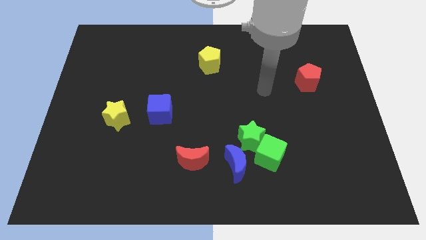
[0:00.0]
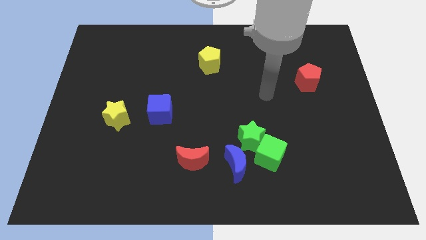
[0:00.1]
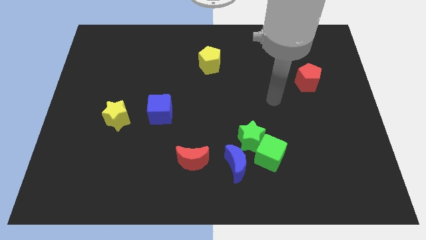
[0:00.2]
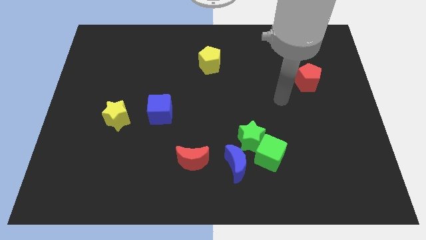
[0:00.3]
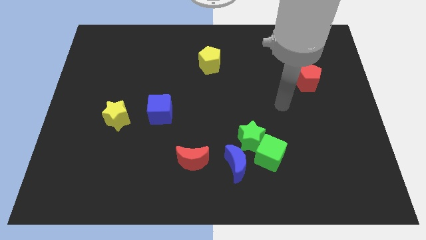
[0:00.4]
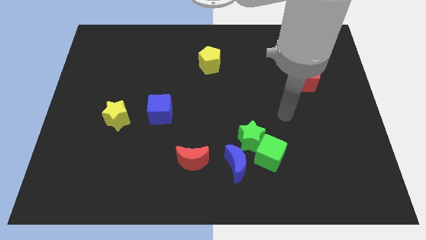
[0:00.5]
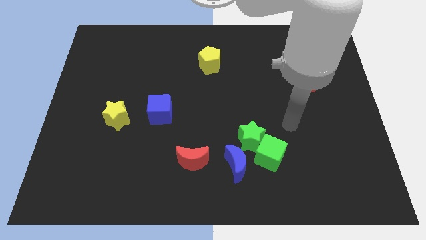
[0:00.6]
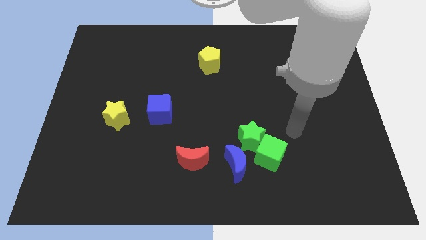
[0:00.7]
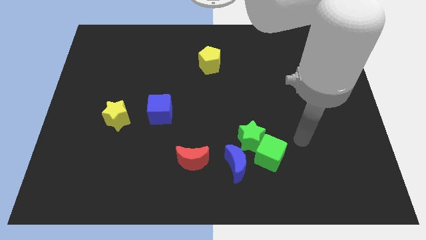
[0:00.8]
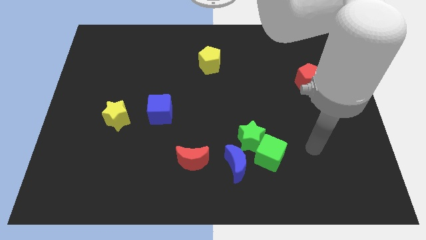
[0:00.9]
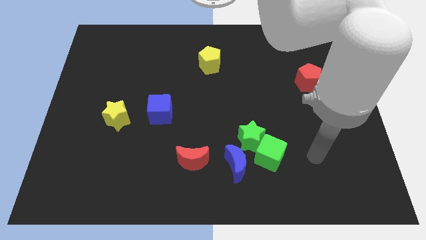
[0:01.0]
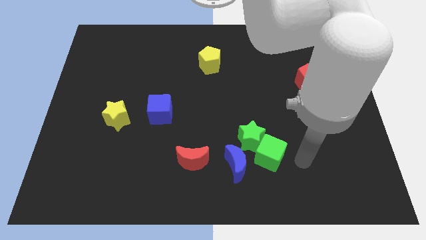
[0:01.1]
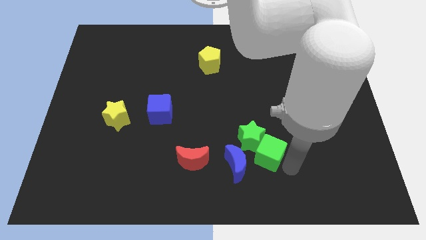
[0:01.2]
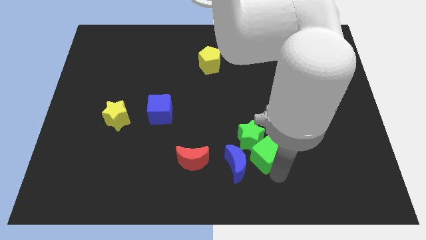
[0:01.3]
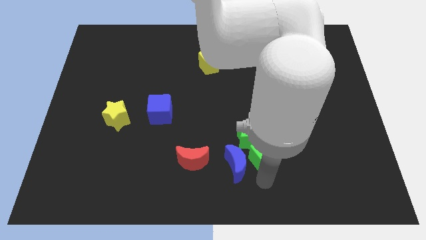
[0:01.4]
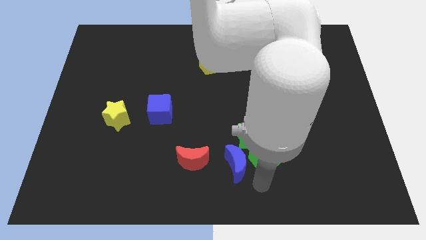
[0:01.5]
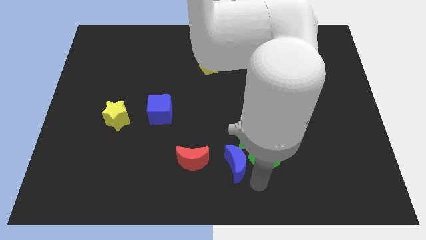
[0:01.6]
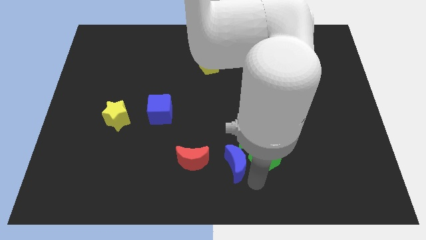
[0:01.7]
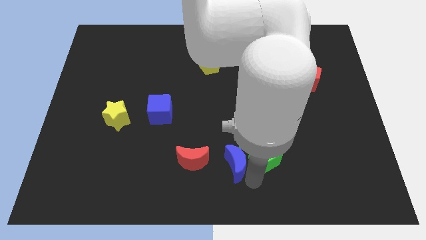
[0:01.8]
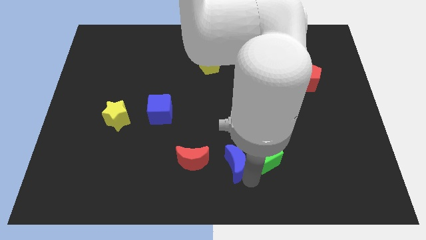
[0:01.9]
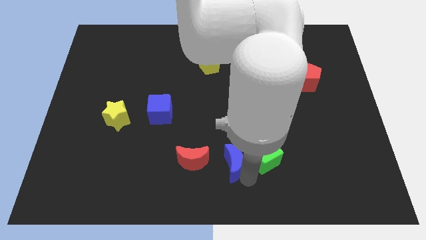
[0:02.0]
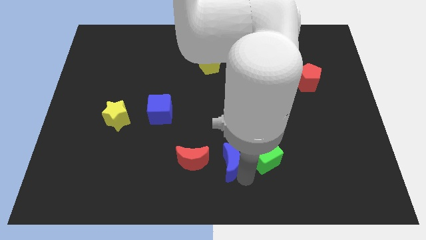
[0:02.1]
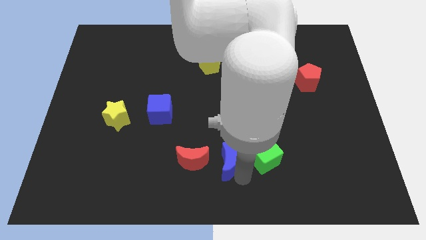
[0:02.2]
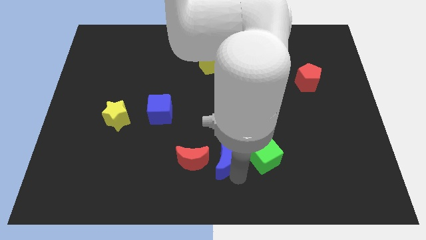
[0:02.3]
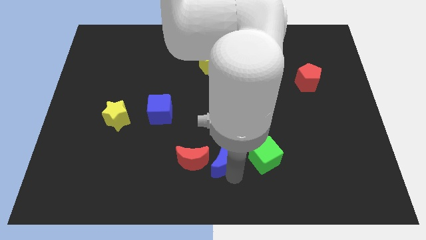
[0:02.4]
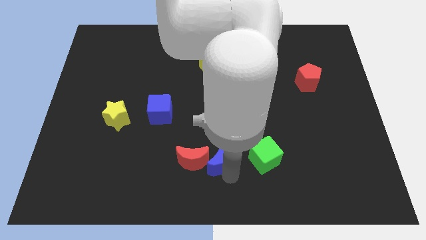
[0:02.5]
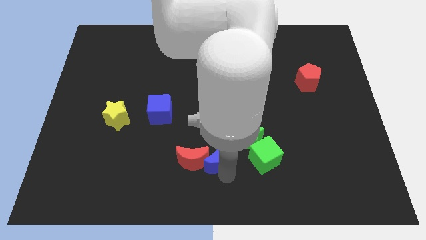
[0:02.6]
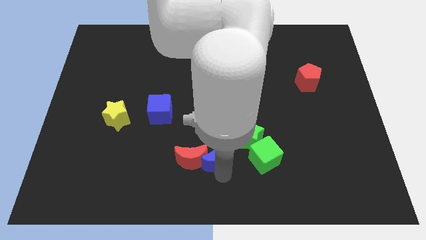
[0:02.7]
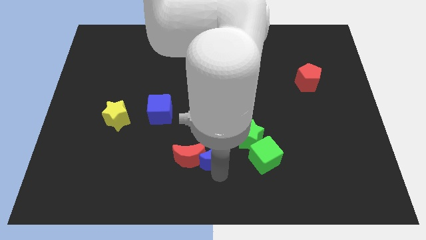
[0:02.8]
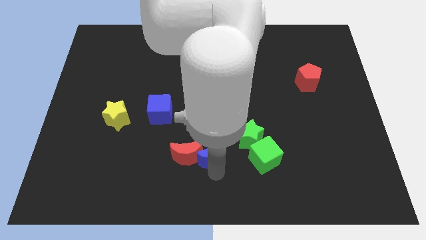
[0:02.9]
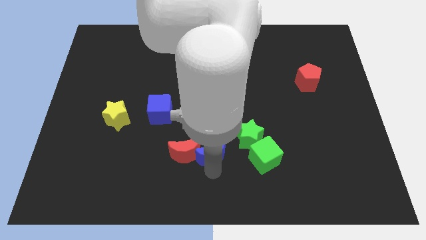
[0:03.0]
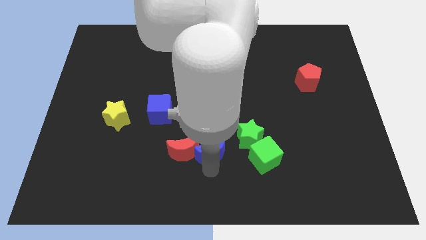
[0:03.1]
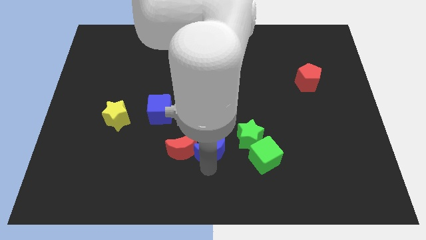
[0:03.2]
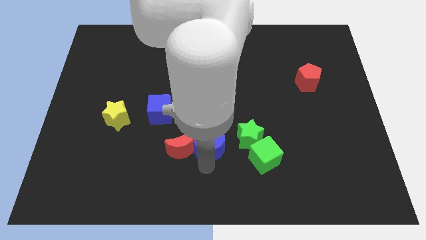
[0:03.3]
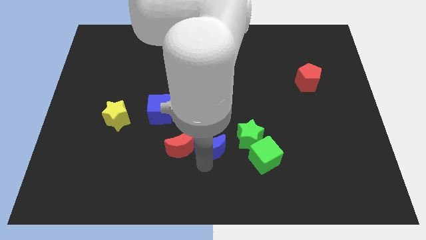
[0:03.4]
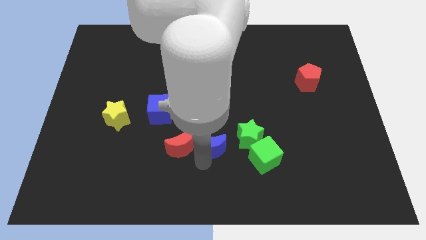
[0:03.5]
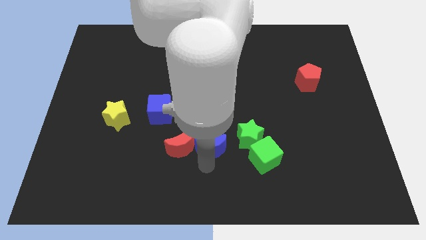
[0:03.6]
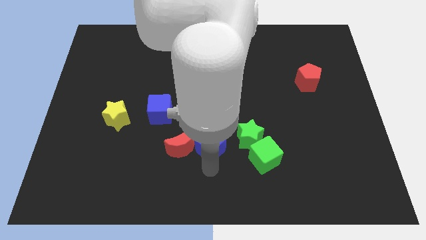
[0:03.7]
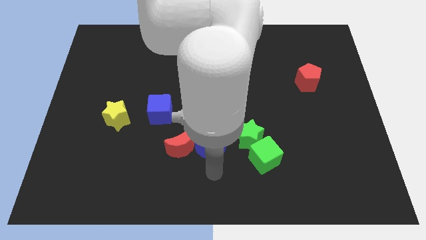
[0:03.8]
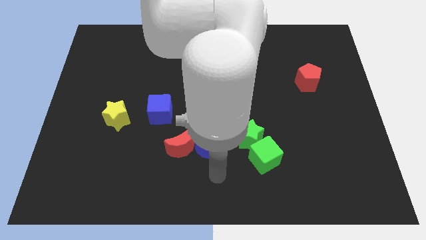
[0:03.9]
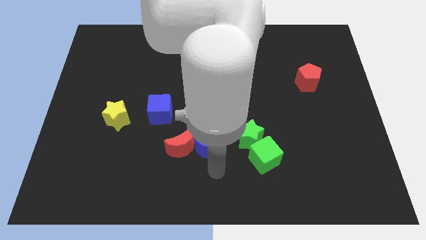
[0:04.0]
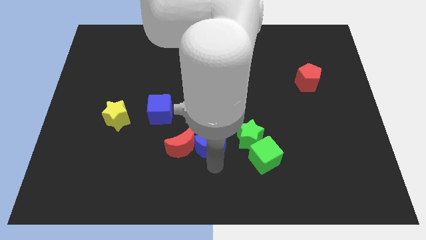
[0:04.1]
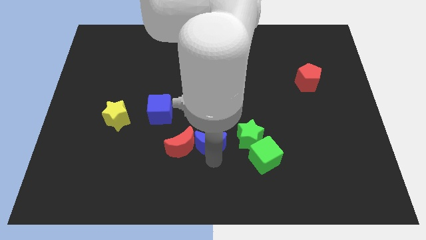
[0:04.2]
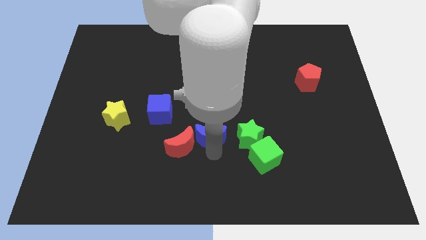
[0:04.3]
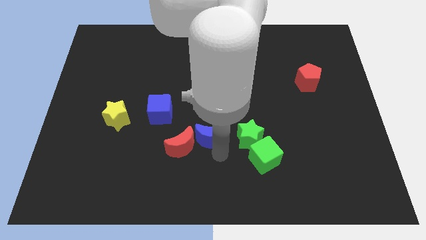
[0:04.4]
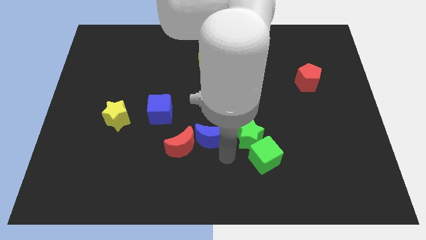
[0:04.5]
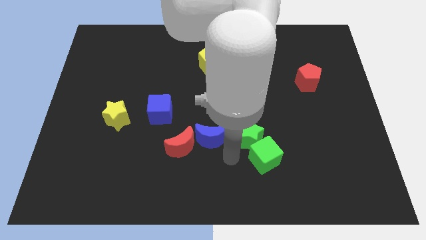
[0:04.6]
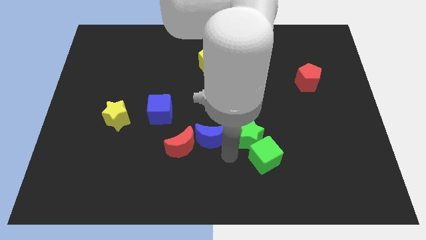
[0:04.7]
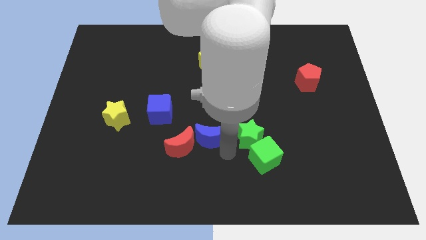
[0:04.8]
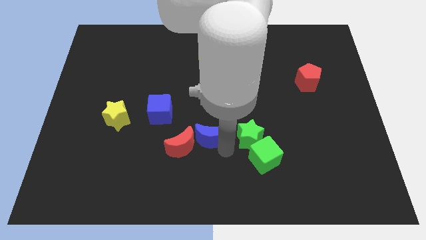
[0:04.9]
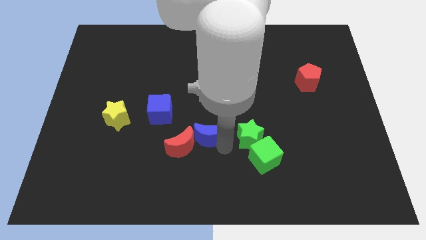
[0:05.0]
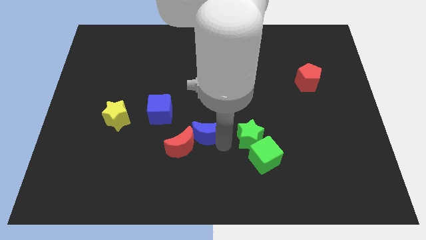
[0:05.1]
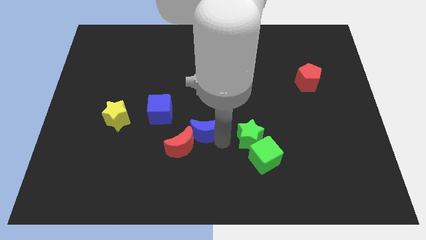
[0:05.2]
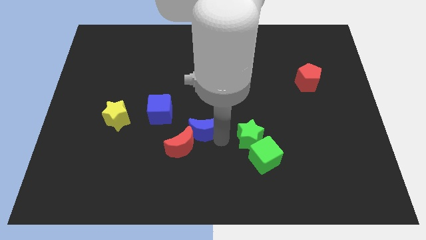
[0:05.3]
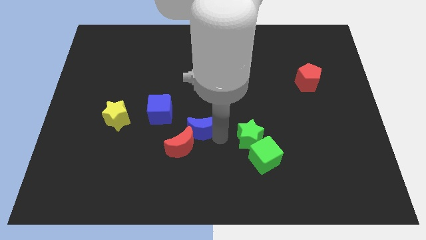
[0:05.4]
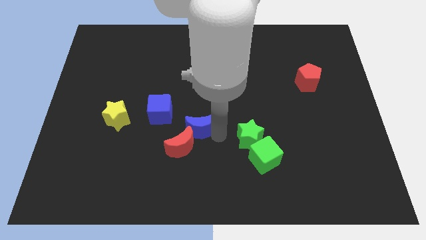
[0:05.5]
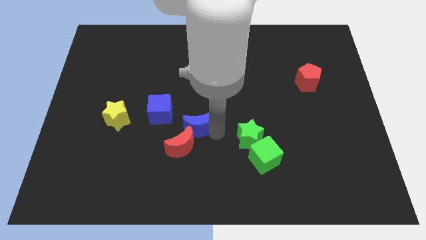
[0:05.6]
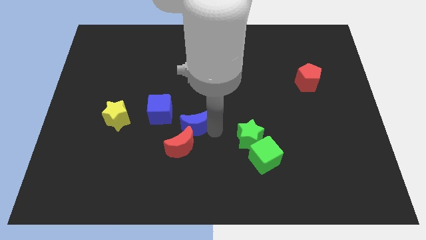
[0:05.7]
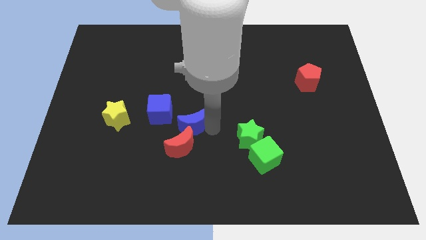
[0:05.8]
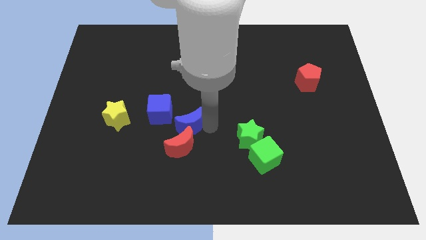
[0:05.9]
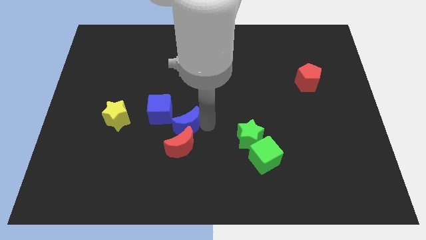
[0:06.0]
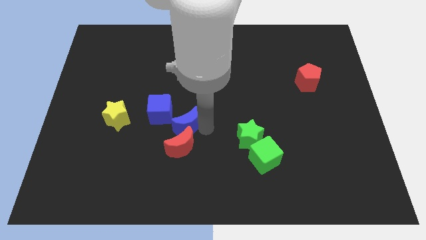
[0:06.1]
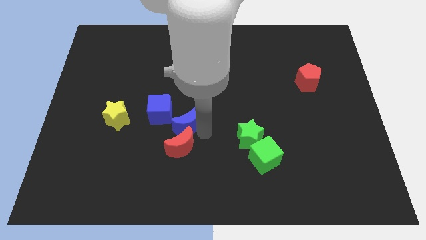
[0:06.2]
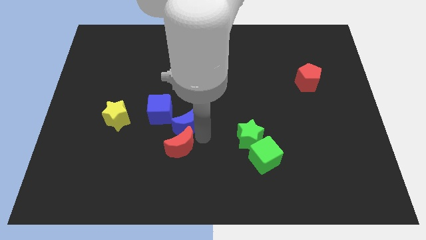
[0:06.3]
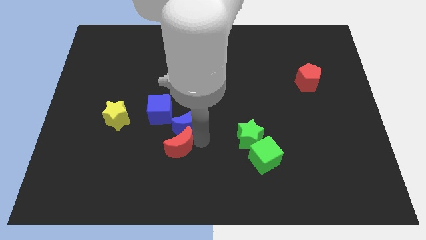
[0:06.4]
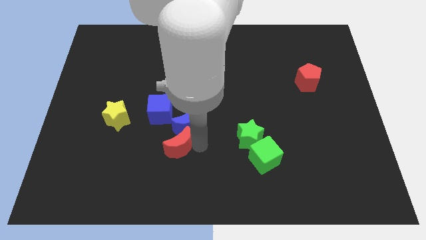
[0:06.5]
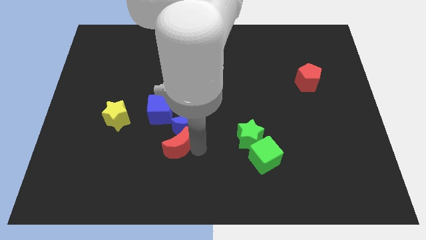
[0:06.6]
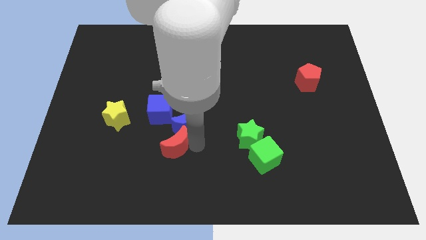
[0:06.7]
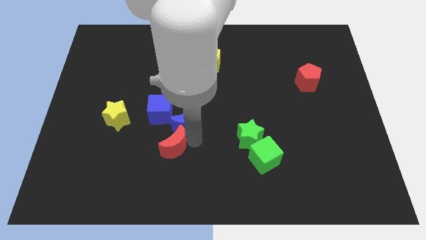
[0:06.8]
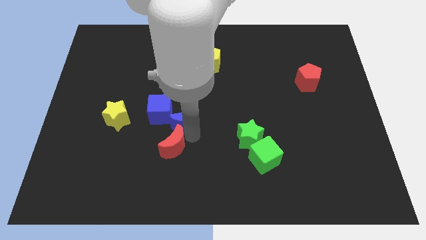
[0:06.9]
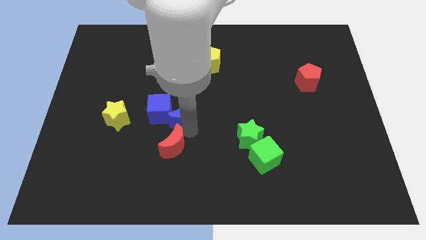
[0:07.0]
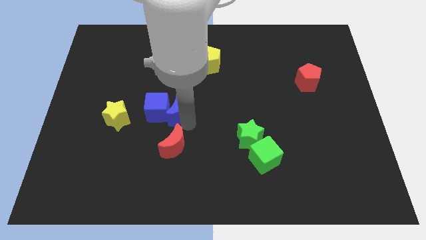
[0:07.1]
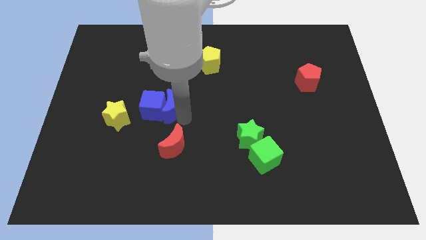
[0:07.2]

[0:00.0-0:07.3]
slide the blue moon up and then left

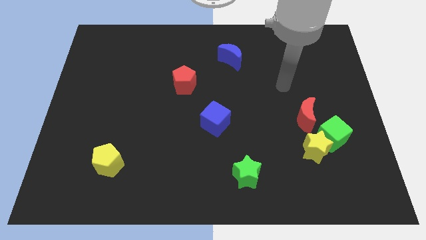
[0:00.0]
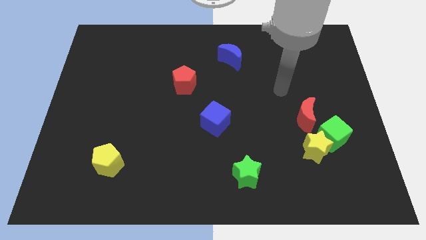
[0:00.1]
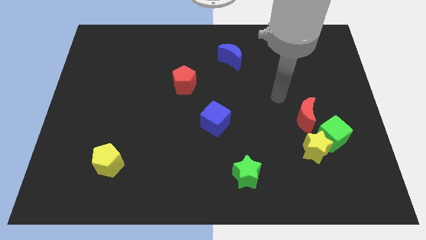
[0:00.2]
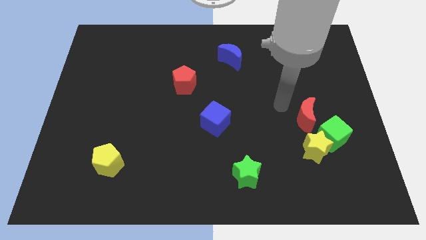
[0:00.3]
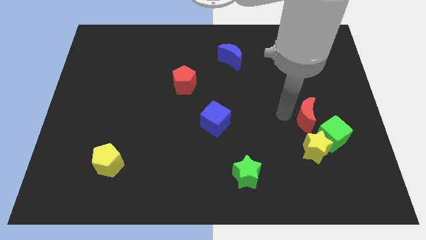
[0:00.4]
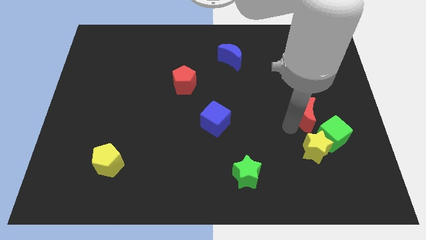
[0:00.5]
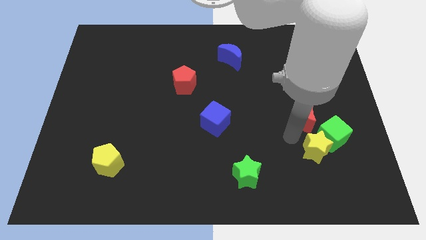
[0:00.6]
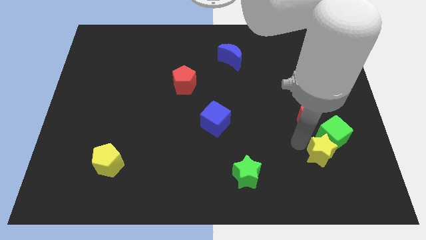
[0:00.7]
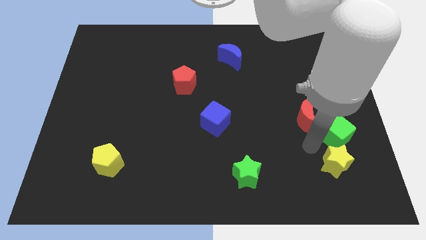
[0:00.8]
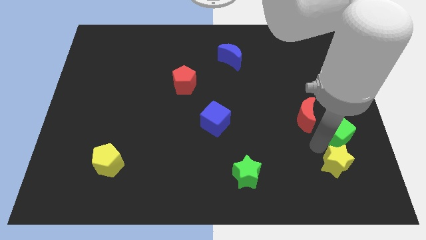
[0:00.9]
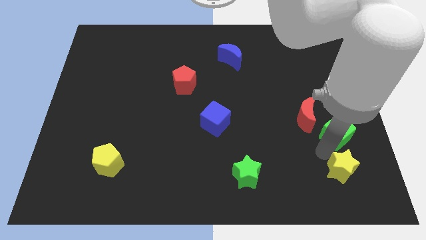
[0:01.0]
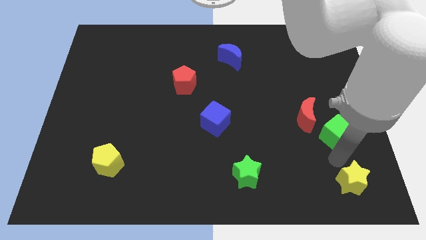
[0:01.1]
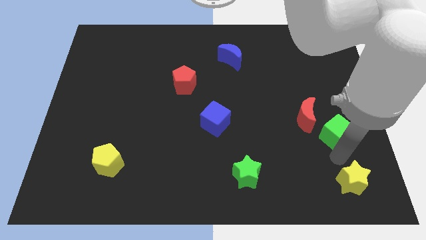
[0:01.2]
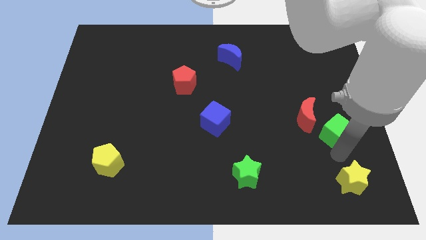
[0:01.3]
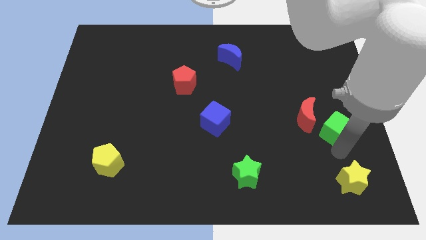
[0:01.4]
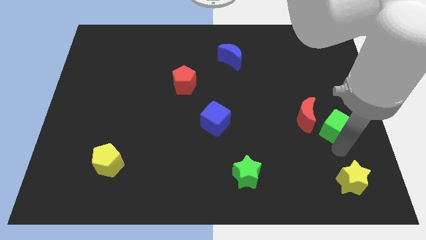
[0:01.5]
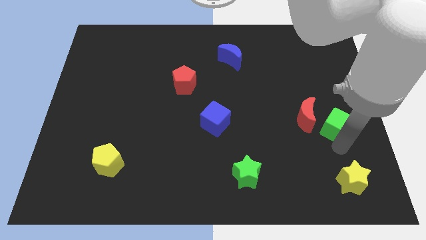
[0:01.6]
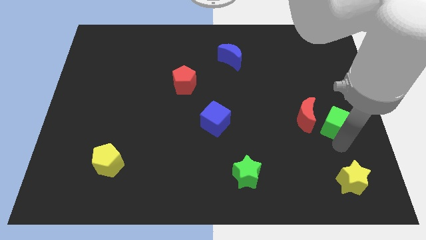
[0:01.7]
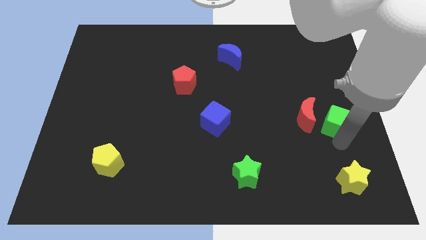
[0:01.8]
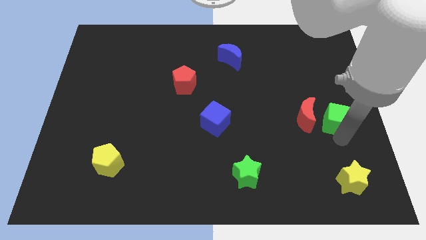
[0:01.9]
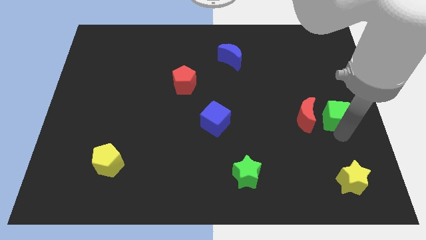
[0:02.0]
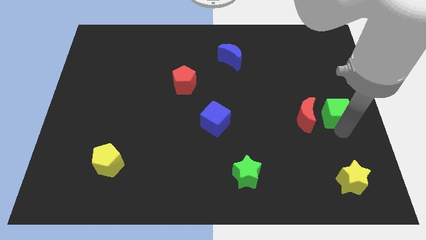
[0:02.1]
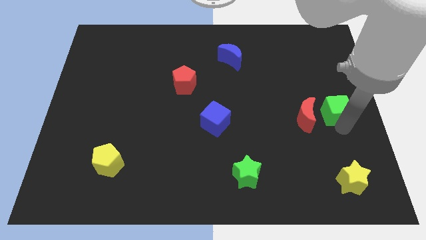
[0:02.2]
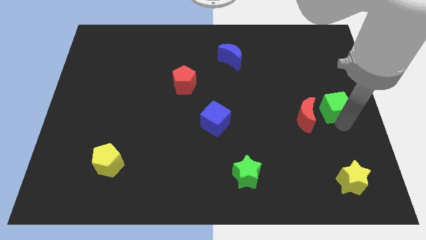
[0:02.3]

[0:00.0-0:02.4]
slightly push the green cube upwards
